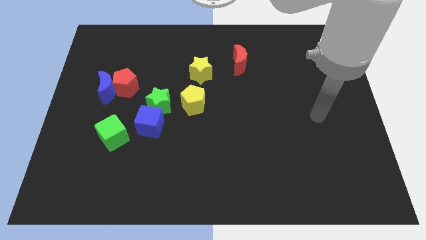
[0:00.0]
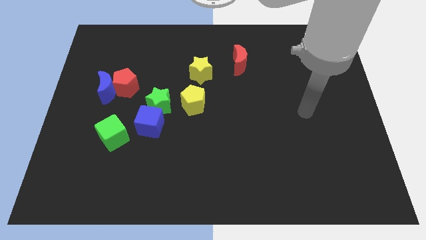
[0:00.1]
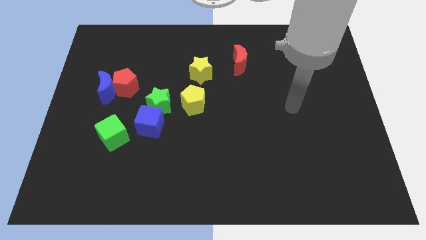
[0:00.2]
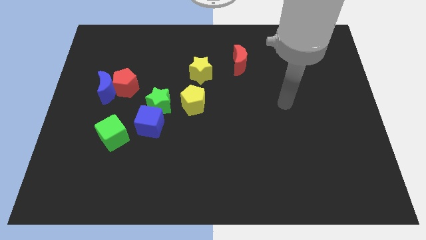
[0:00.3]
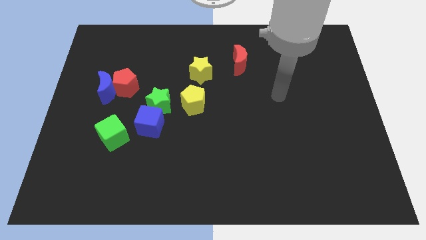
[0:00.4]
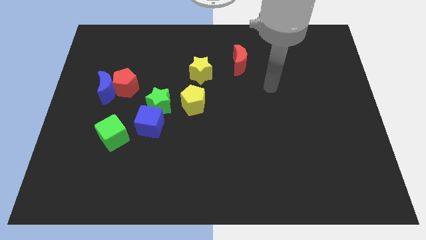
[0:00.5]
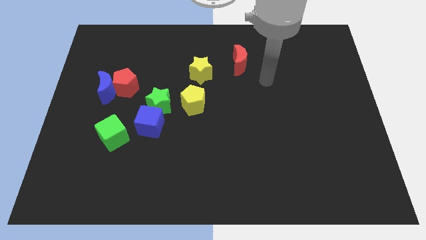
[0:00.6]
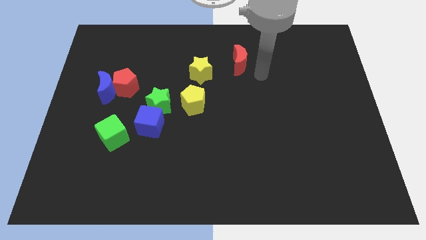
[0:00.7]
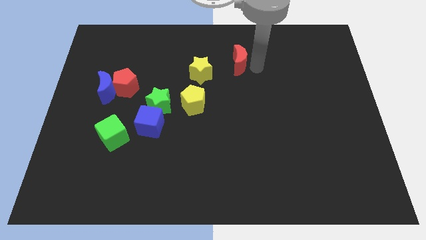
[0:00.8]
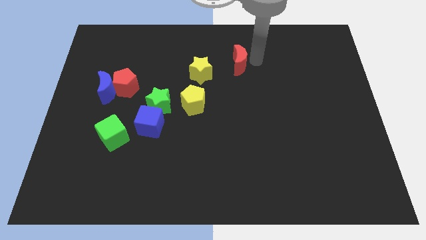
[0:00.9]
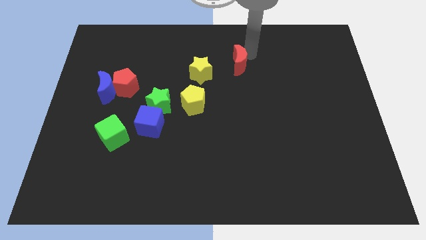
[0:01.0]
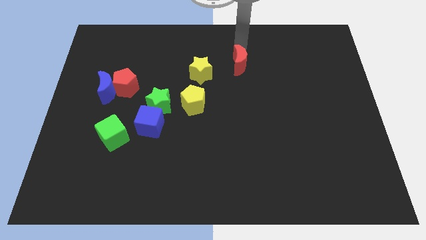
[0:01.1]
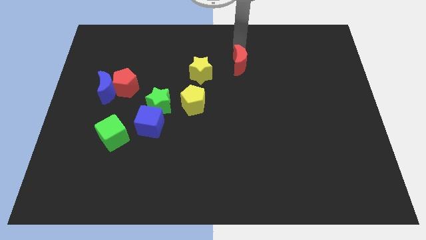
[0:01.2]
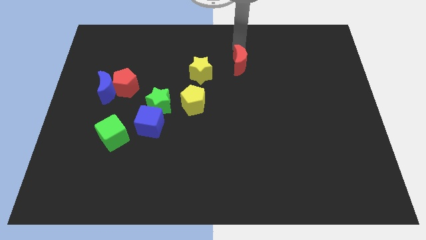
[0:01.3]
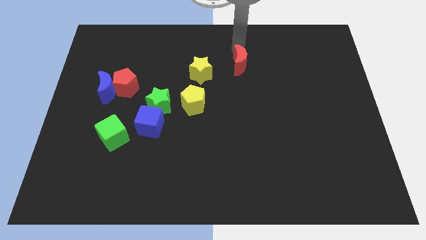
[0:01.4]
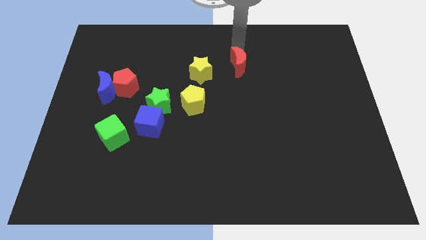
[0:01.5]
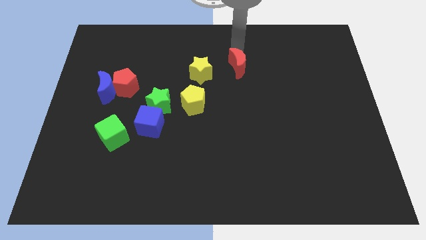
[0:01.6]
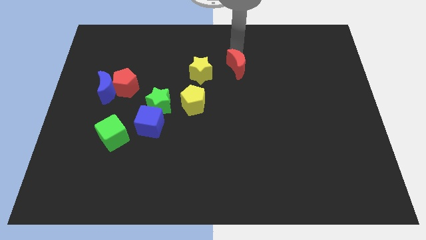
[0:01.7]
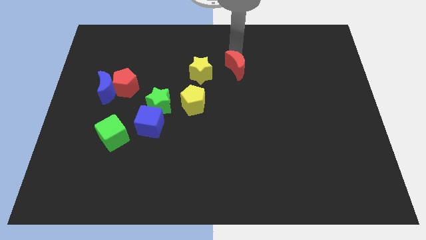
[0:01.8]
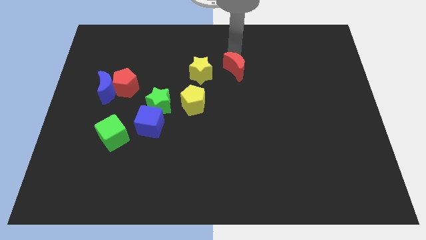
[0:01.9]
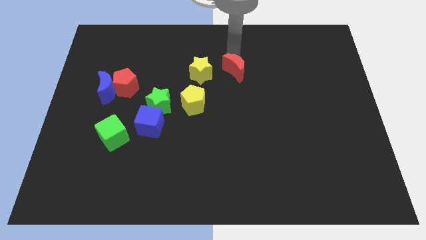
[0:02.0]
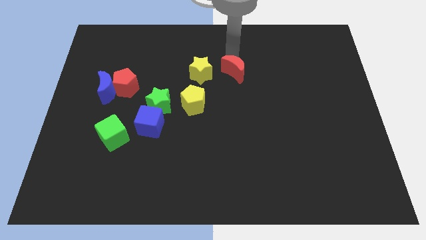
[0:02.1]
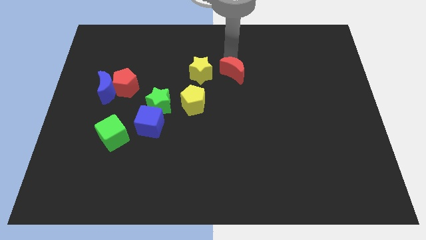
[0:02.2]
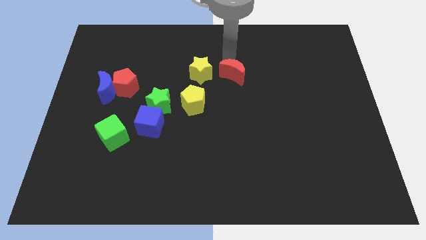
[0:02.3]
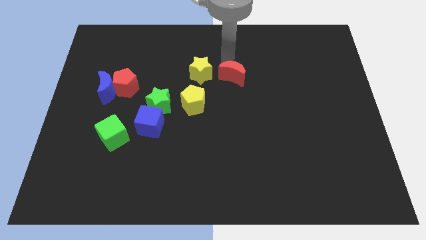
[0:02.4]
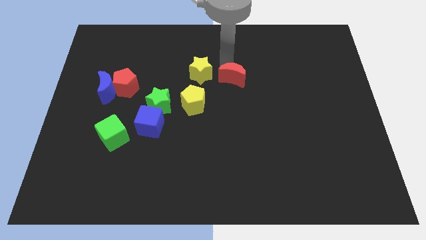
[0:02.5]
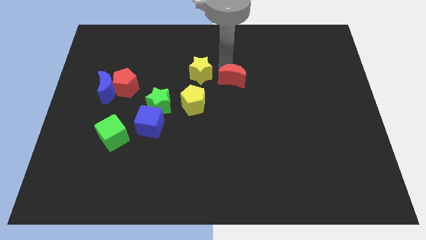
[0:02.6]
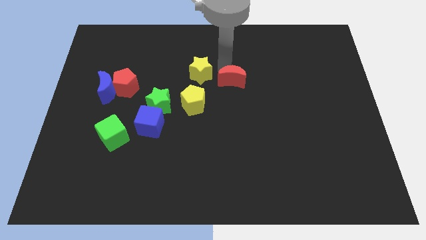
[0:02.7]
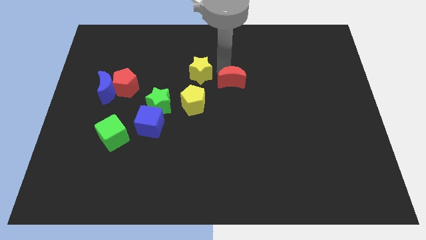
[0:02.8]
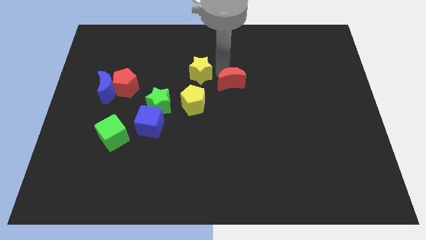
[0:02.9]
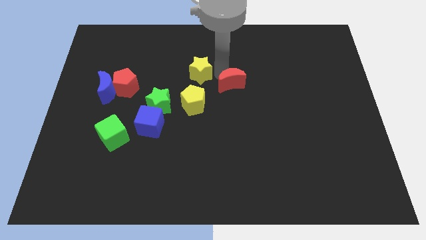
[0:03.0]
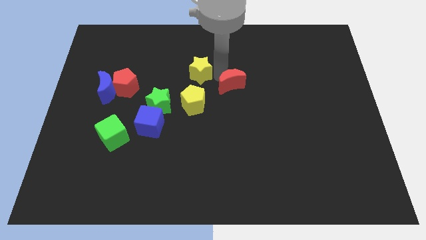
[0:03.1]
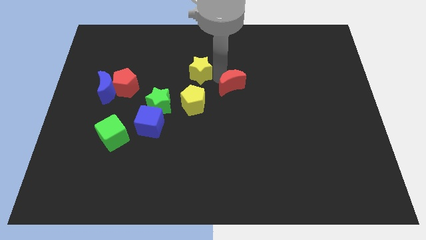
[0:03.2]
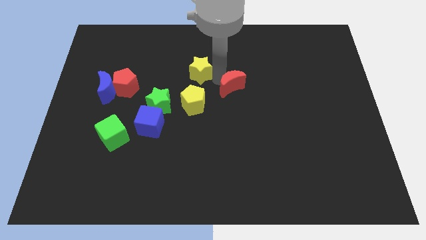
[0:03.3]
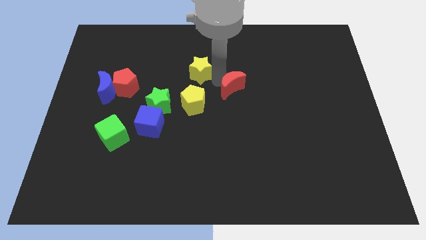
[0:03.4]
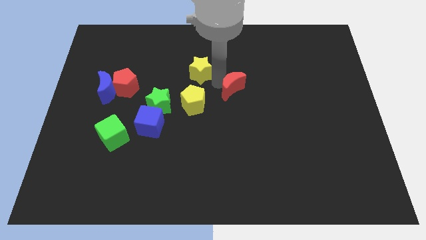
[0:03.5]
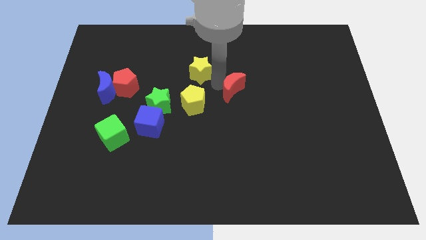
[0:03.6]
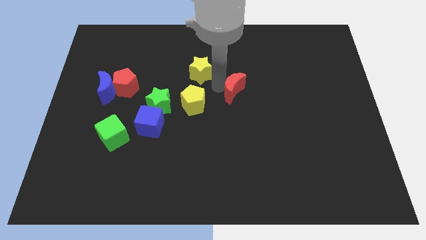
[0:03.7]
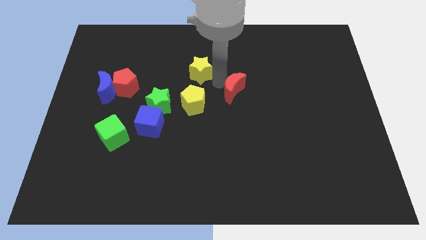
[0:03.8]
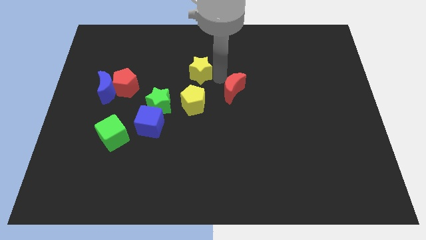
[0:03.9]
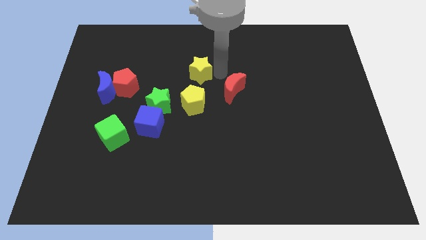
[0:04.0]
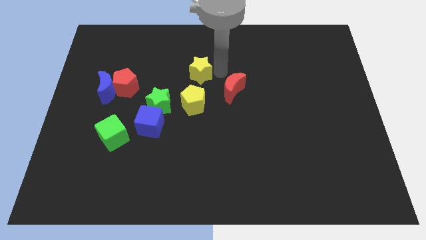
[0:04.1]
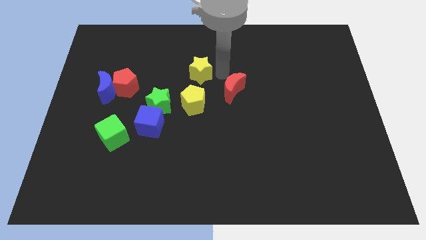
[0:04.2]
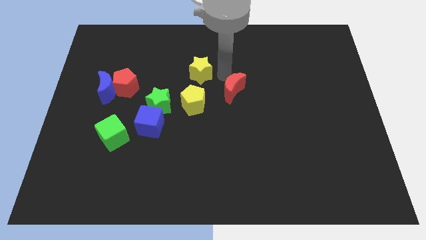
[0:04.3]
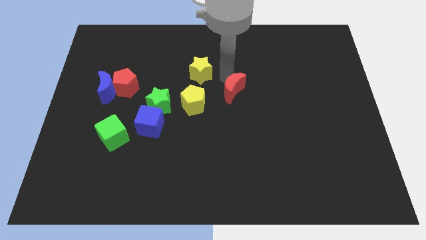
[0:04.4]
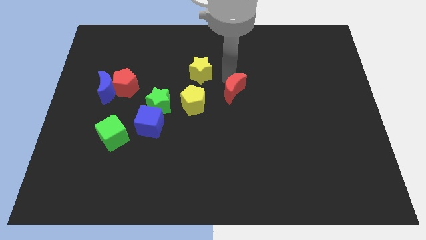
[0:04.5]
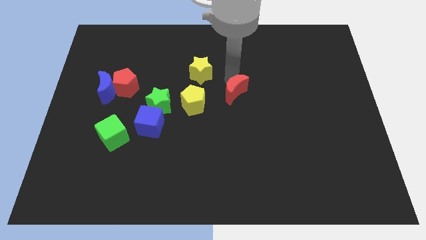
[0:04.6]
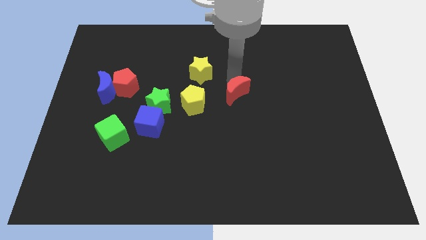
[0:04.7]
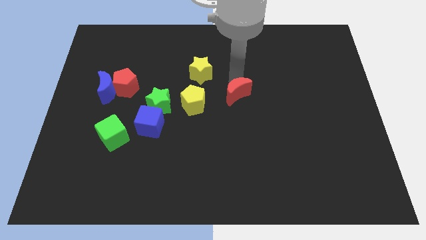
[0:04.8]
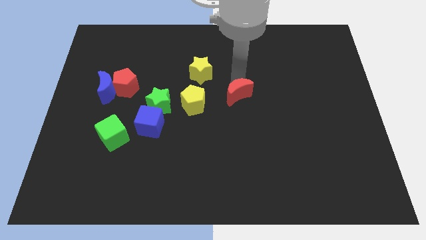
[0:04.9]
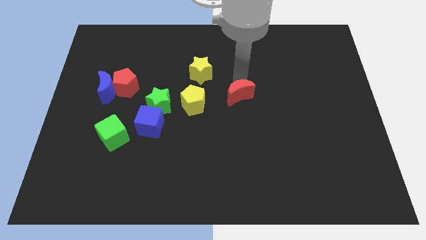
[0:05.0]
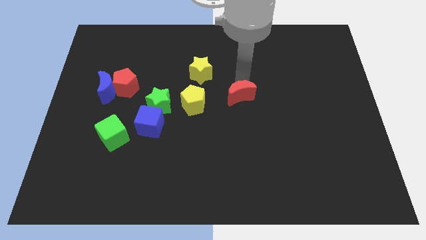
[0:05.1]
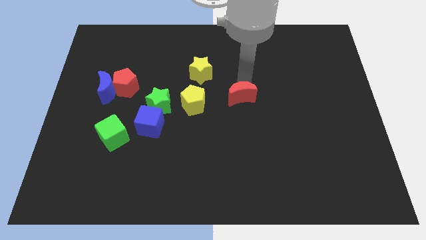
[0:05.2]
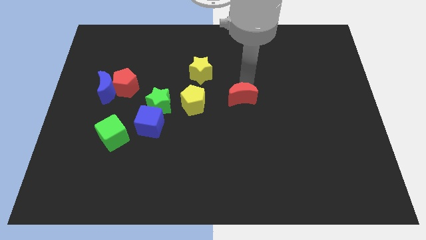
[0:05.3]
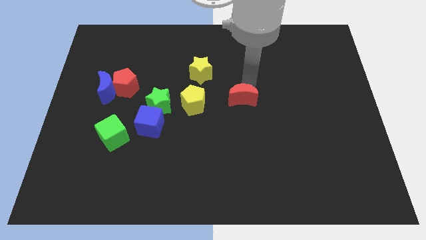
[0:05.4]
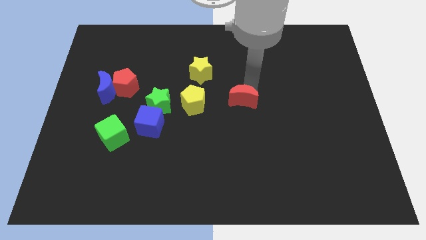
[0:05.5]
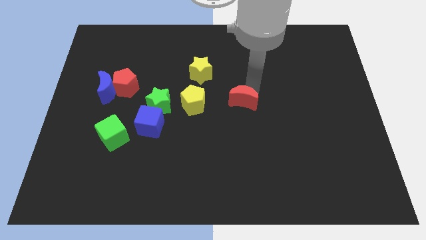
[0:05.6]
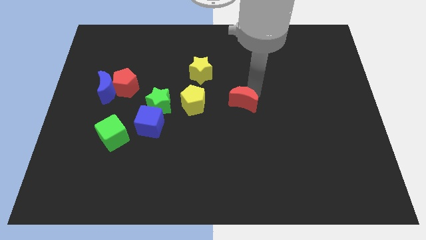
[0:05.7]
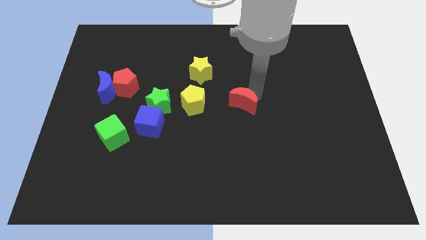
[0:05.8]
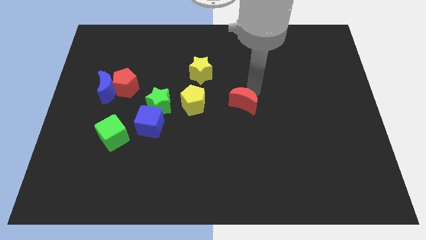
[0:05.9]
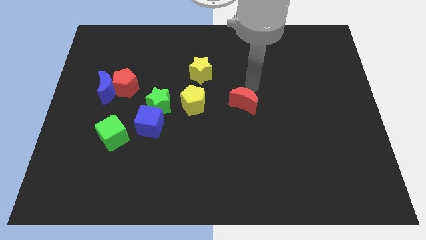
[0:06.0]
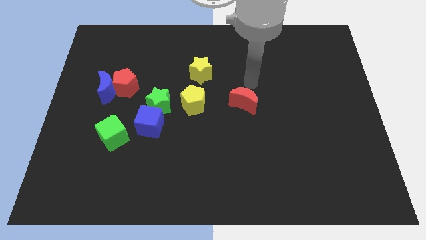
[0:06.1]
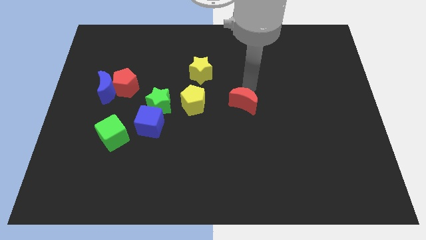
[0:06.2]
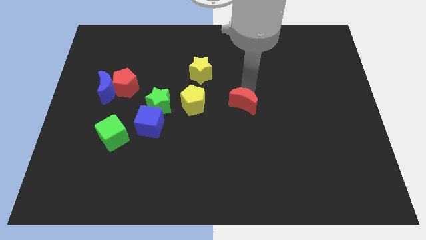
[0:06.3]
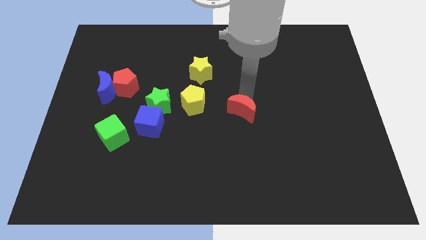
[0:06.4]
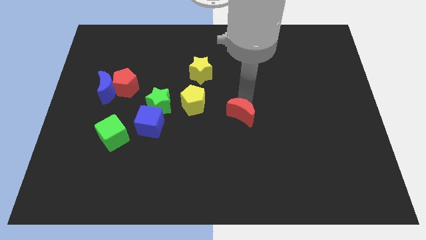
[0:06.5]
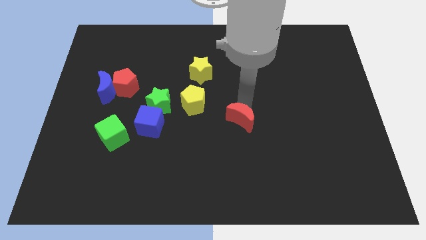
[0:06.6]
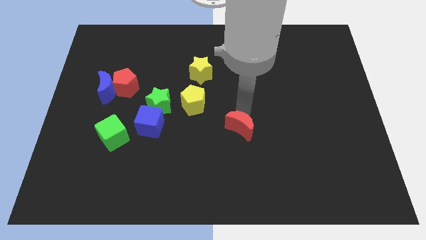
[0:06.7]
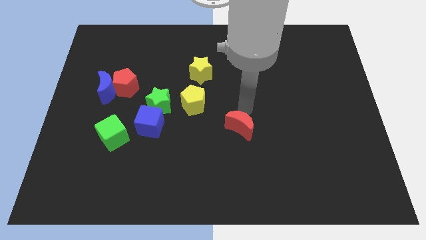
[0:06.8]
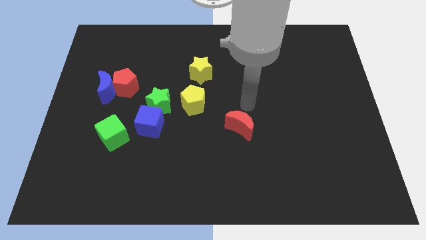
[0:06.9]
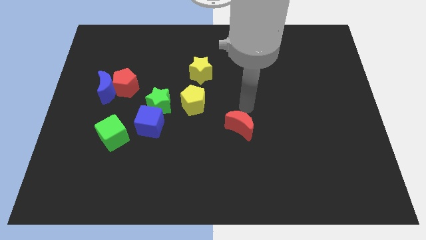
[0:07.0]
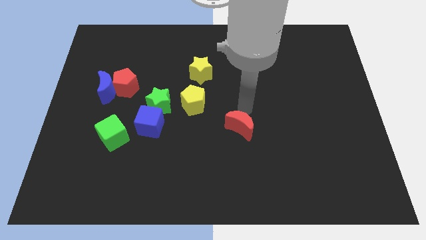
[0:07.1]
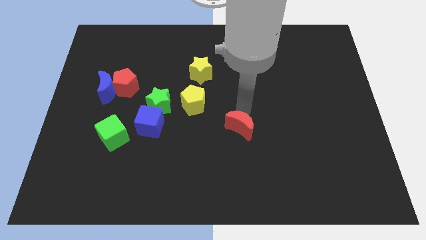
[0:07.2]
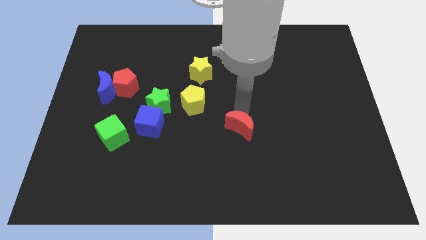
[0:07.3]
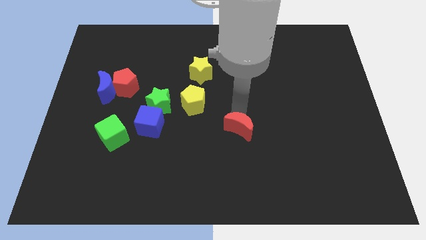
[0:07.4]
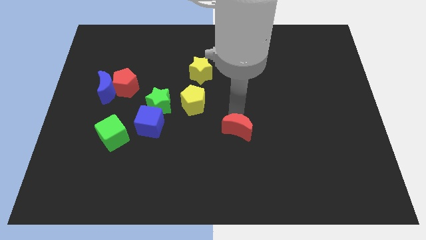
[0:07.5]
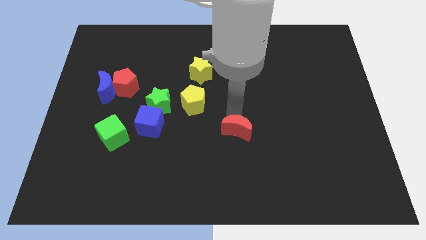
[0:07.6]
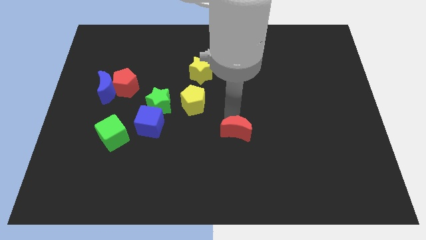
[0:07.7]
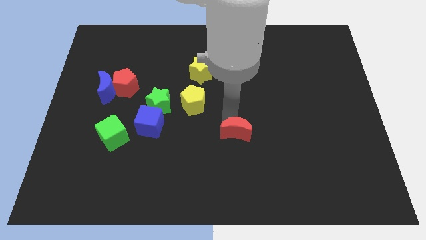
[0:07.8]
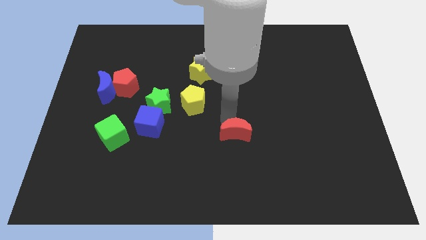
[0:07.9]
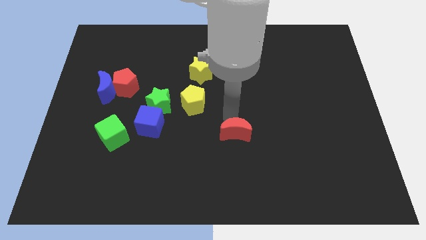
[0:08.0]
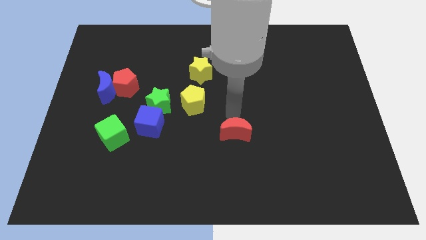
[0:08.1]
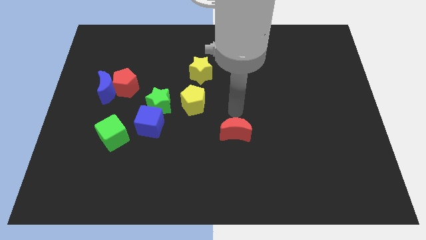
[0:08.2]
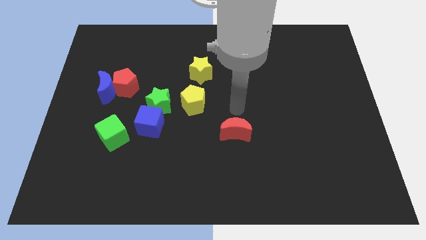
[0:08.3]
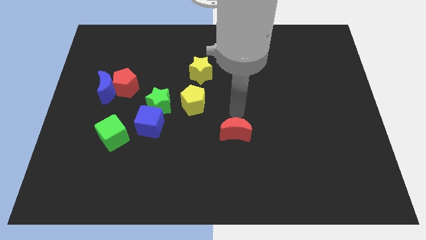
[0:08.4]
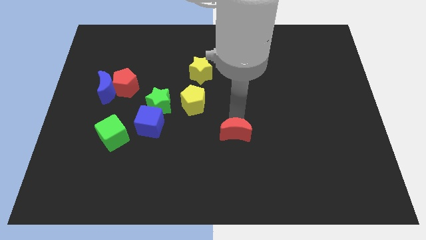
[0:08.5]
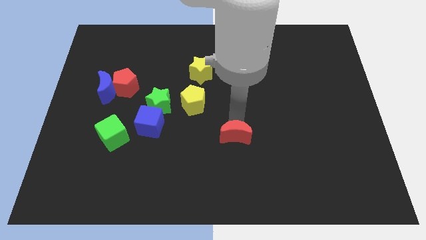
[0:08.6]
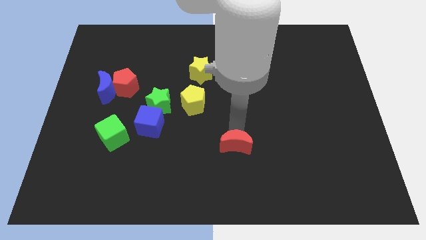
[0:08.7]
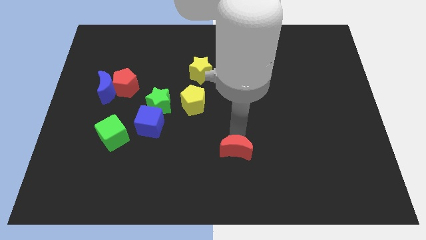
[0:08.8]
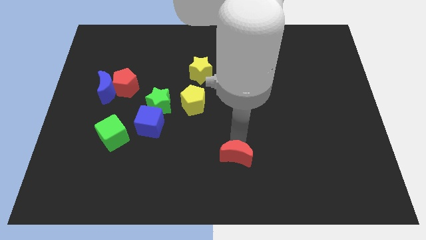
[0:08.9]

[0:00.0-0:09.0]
move the red moon to the bottom side
